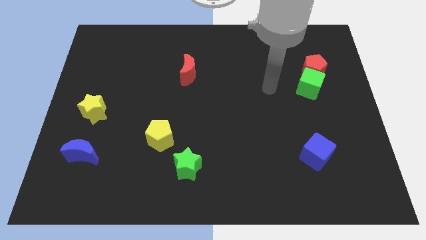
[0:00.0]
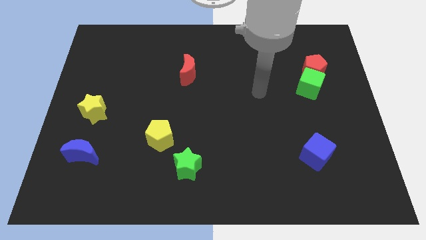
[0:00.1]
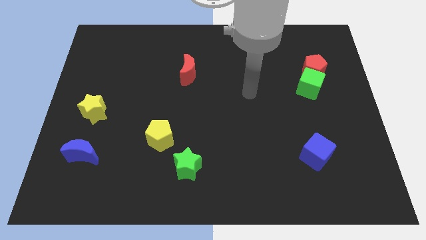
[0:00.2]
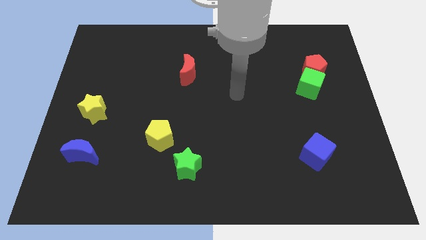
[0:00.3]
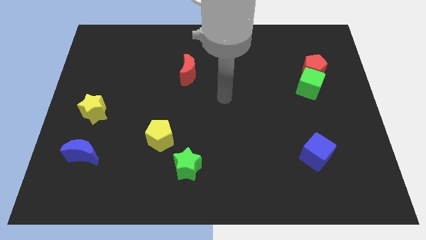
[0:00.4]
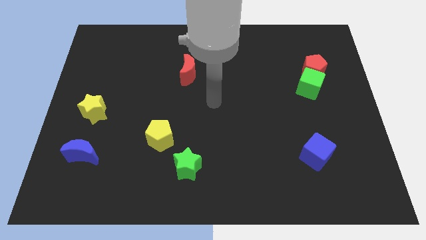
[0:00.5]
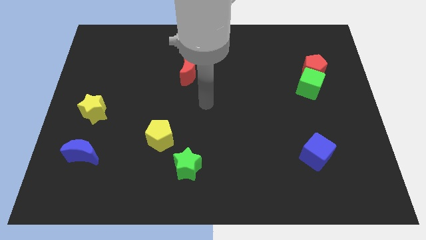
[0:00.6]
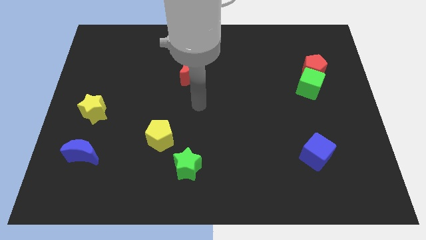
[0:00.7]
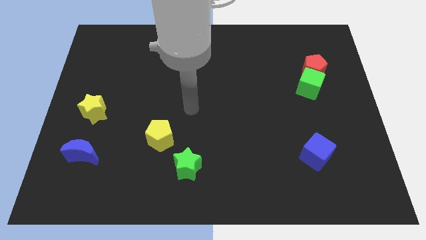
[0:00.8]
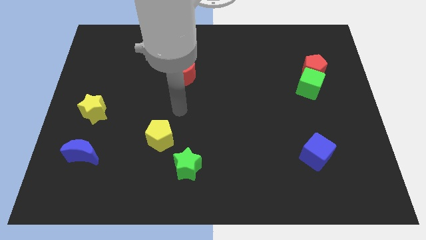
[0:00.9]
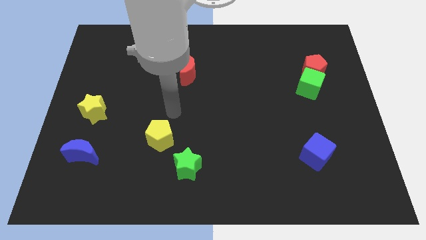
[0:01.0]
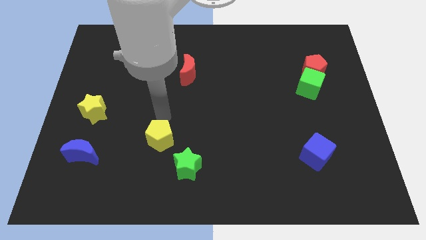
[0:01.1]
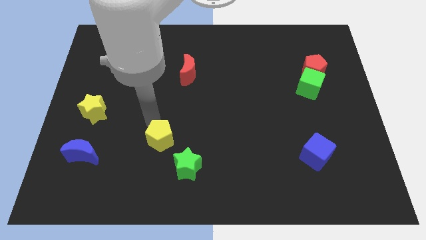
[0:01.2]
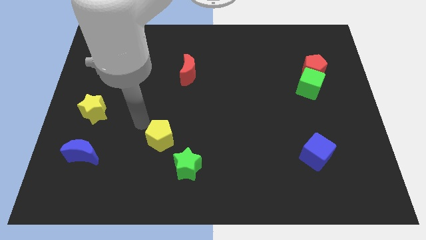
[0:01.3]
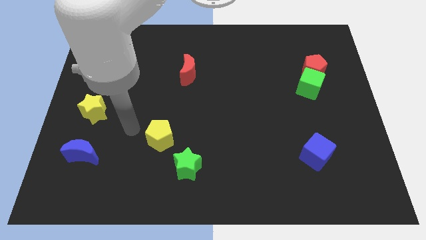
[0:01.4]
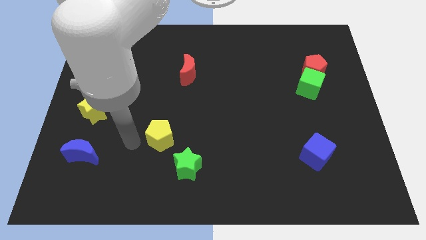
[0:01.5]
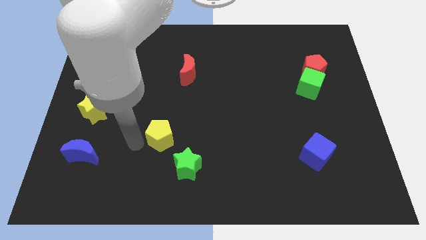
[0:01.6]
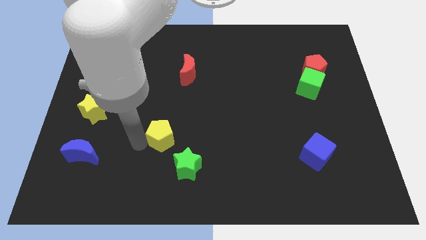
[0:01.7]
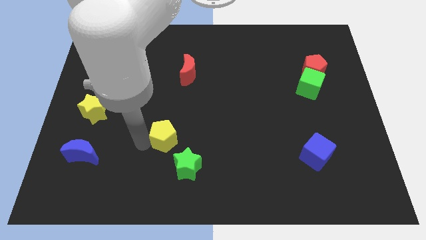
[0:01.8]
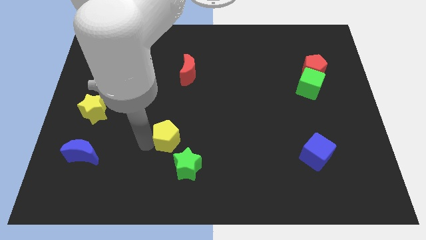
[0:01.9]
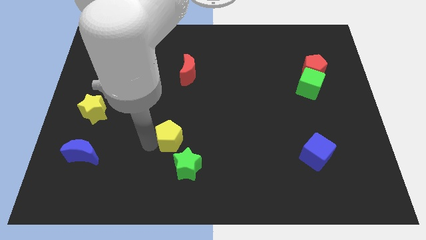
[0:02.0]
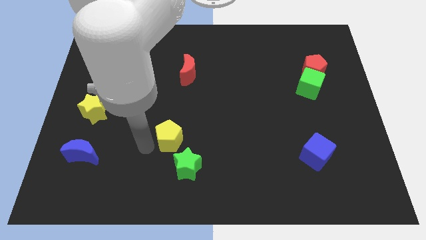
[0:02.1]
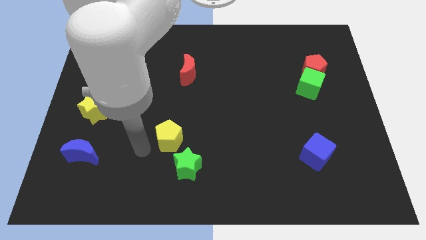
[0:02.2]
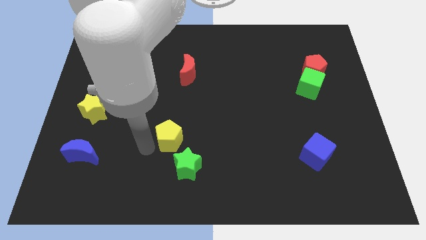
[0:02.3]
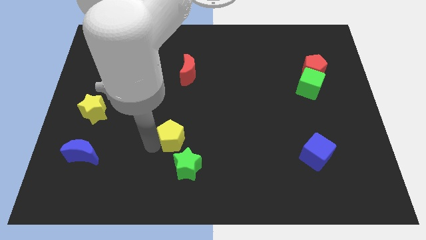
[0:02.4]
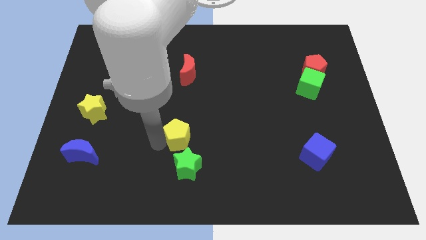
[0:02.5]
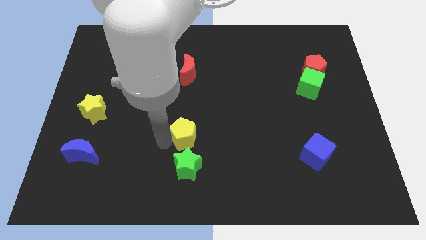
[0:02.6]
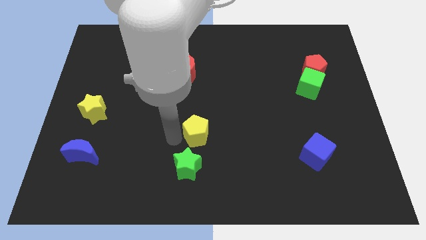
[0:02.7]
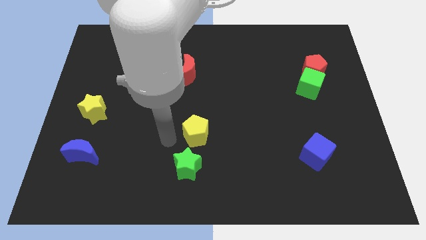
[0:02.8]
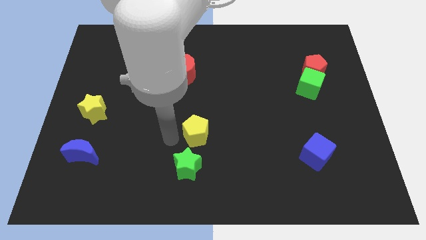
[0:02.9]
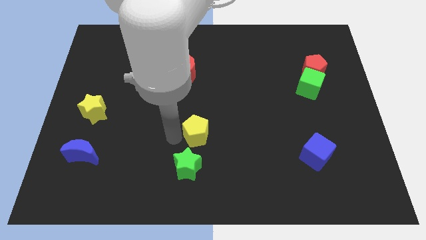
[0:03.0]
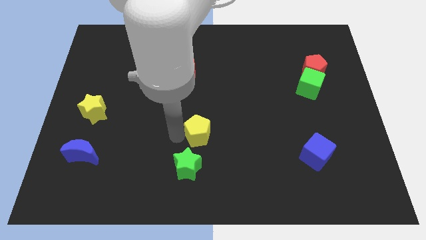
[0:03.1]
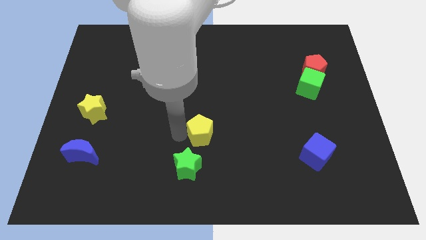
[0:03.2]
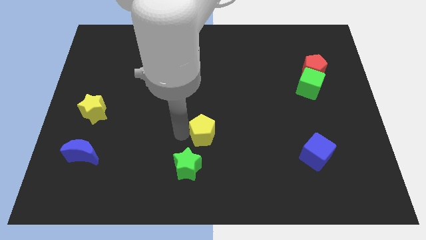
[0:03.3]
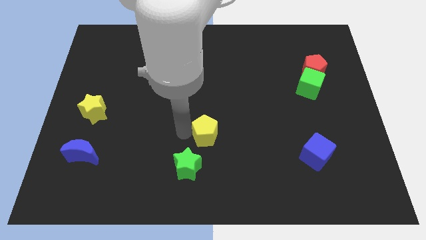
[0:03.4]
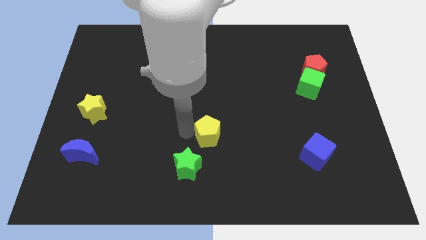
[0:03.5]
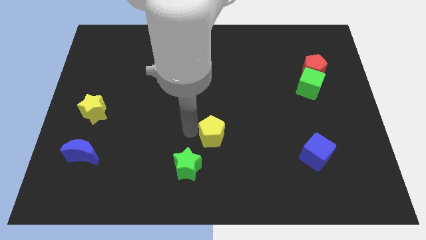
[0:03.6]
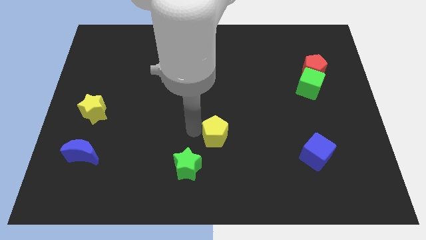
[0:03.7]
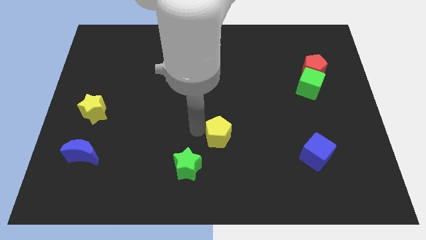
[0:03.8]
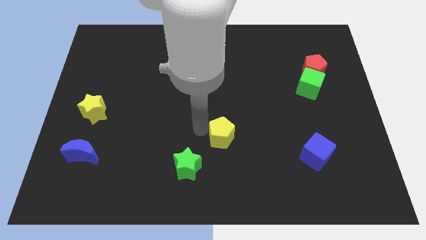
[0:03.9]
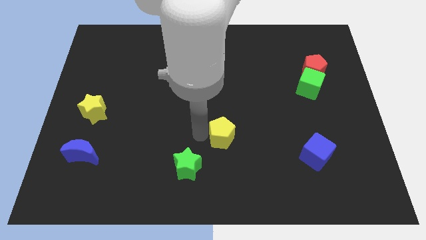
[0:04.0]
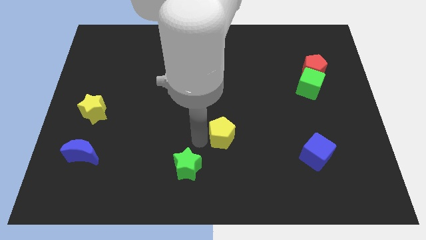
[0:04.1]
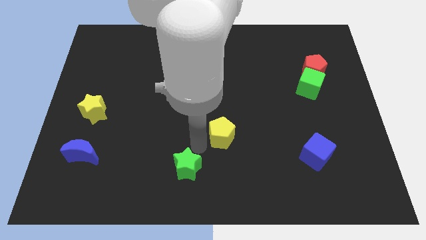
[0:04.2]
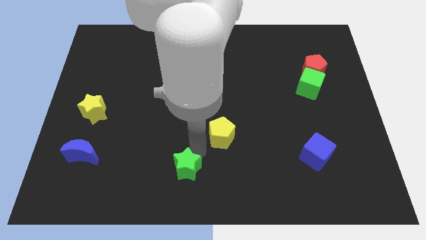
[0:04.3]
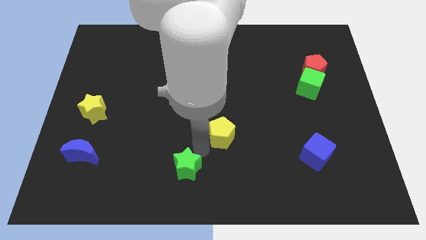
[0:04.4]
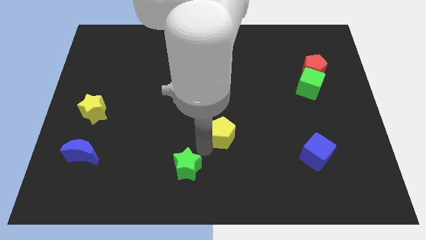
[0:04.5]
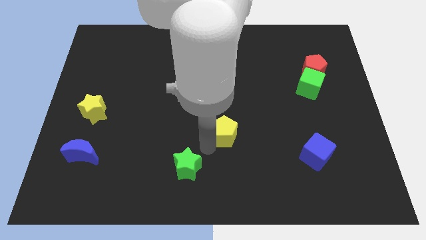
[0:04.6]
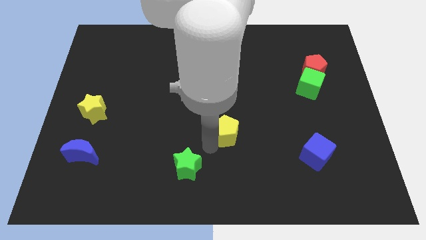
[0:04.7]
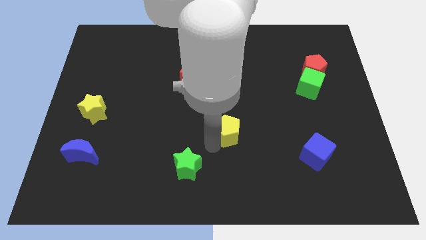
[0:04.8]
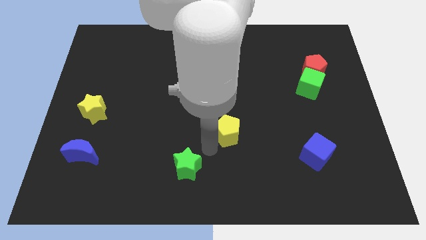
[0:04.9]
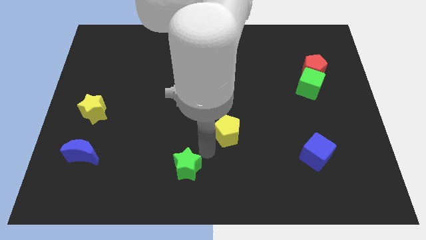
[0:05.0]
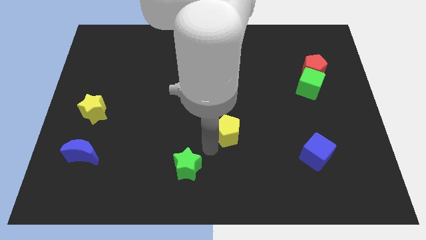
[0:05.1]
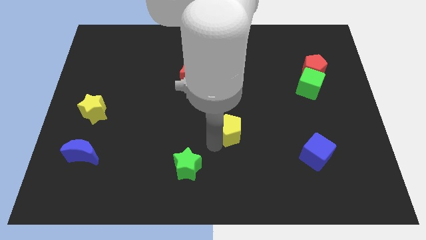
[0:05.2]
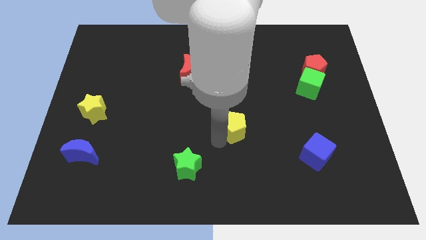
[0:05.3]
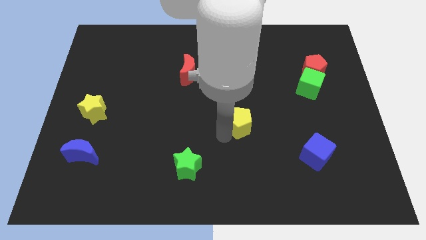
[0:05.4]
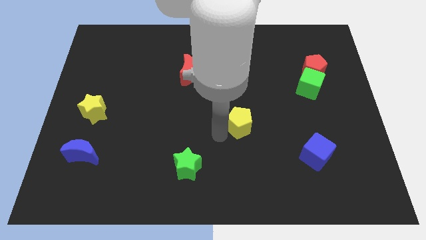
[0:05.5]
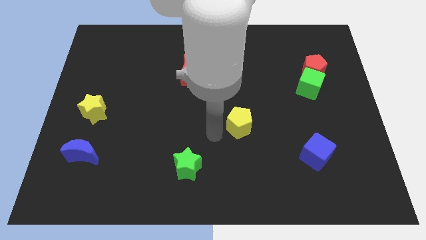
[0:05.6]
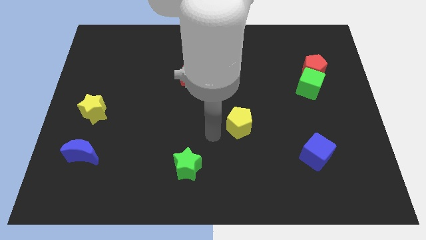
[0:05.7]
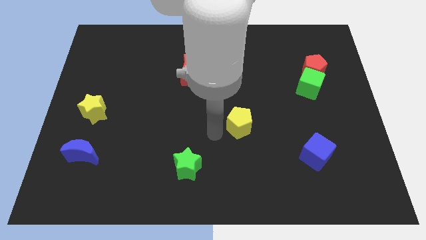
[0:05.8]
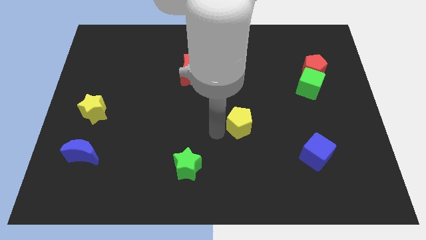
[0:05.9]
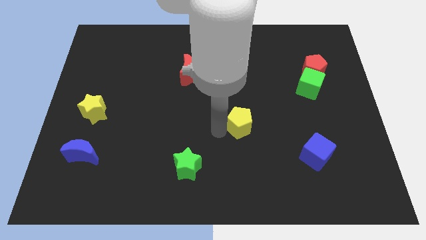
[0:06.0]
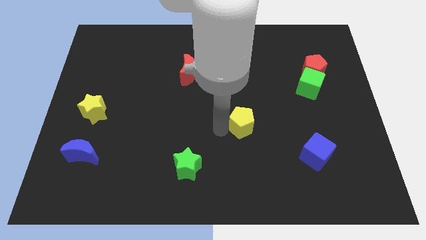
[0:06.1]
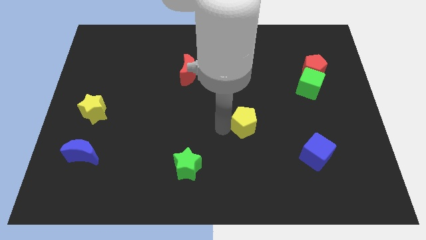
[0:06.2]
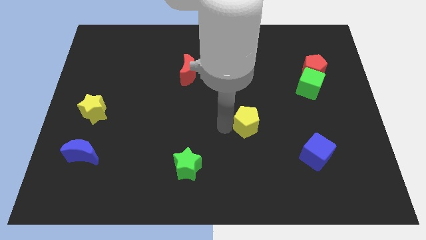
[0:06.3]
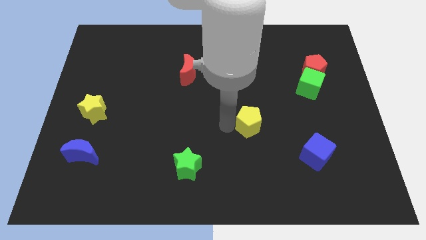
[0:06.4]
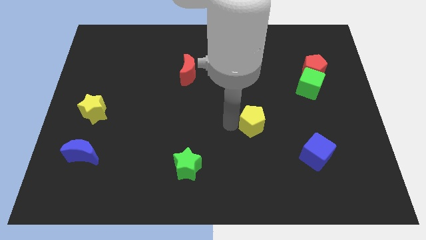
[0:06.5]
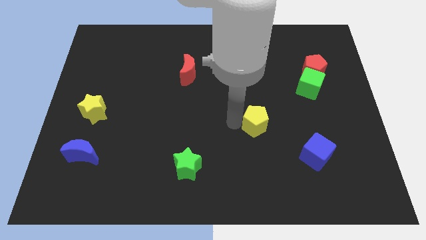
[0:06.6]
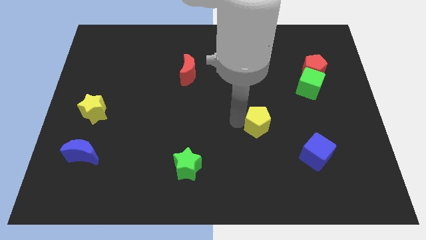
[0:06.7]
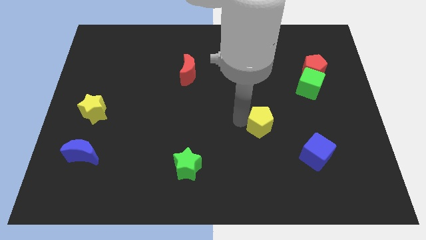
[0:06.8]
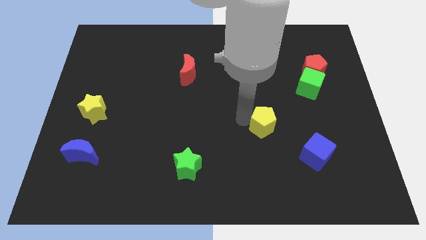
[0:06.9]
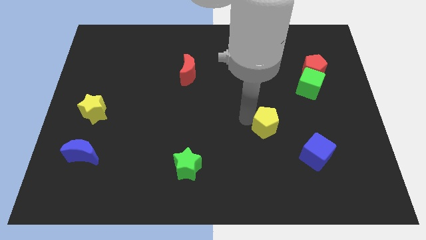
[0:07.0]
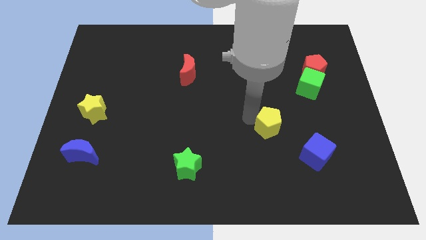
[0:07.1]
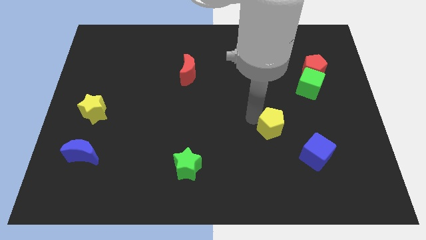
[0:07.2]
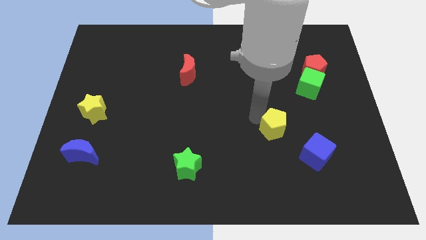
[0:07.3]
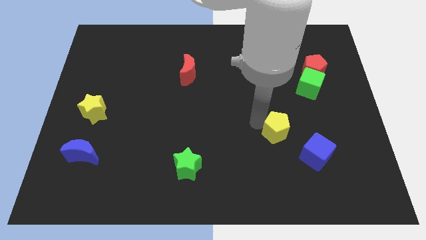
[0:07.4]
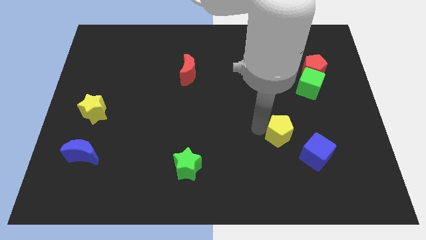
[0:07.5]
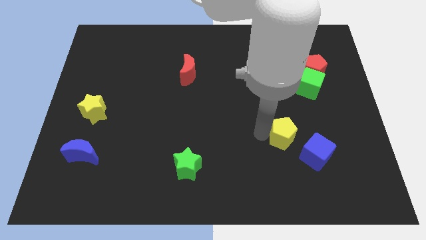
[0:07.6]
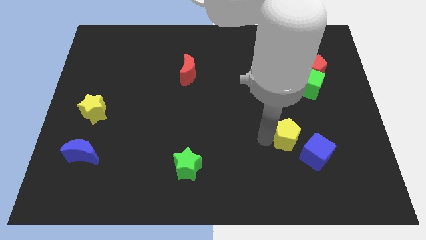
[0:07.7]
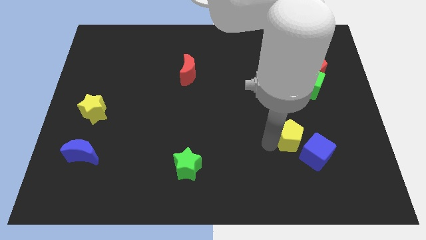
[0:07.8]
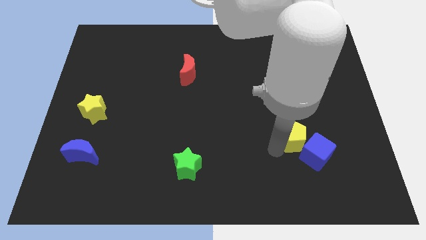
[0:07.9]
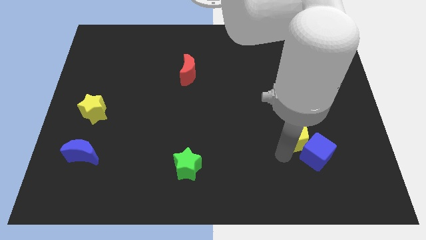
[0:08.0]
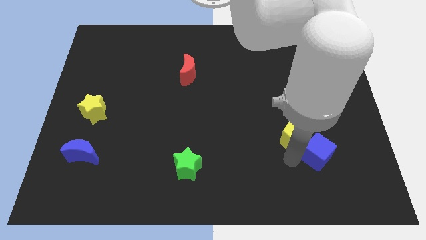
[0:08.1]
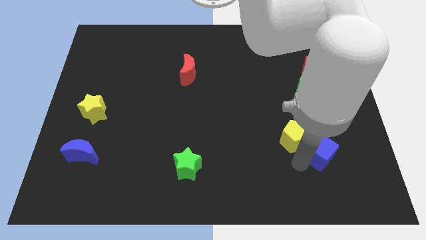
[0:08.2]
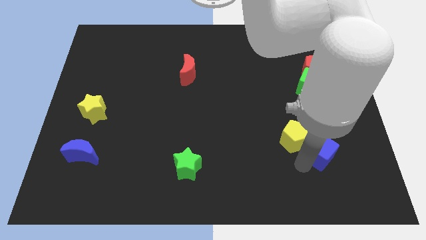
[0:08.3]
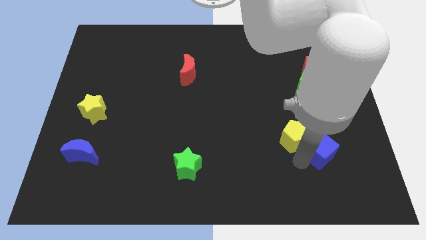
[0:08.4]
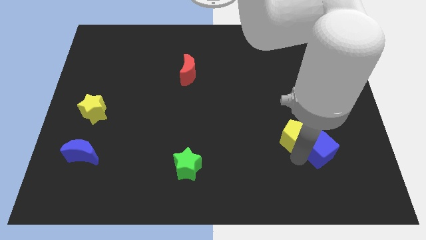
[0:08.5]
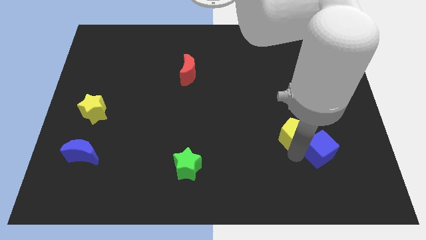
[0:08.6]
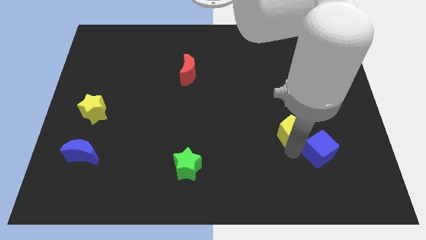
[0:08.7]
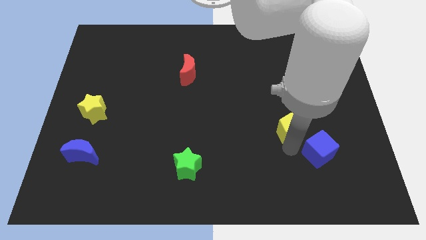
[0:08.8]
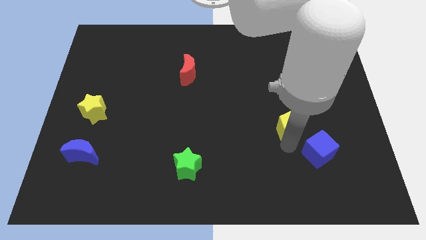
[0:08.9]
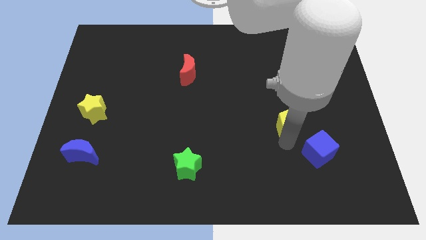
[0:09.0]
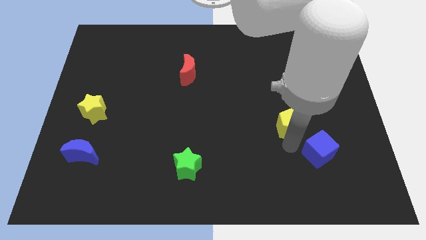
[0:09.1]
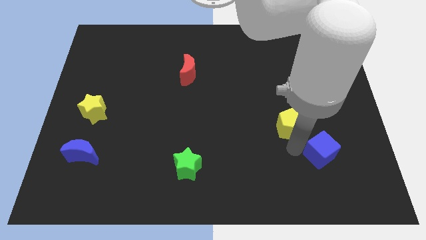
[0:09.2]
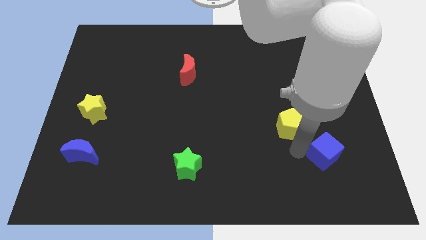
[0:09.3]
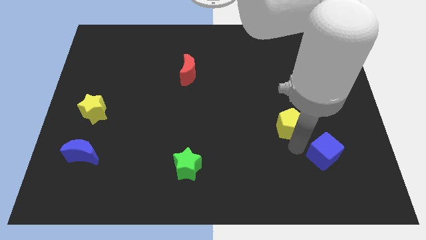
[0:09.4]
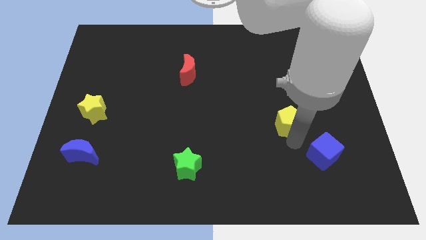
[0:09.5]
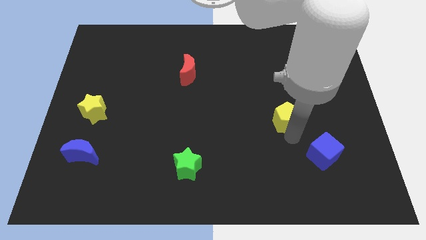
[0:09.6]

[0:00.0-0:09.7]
move the yellow pentagon to the bottom left side of the green cube
